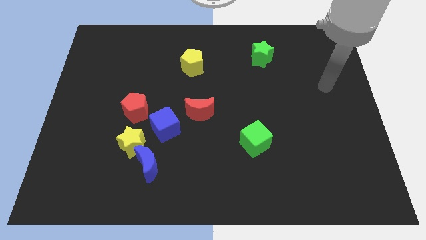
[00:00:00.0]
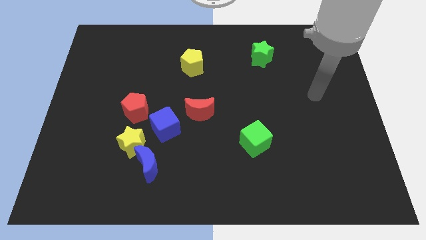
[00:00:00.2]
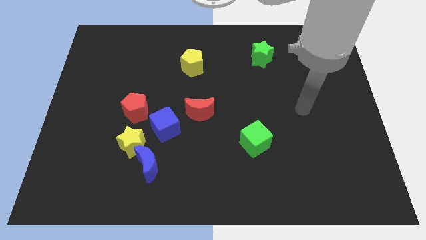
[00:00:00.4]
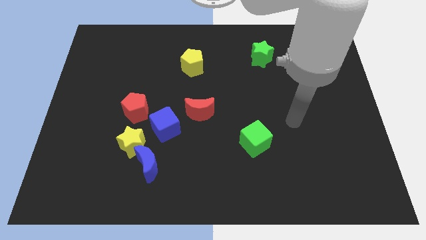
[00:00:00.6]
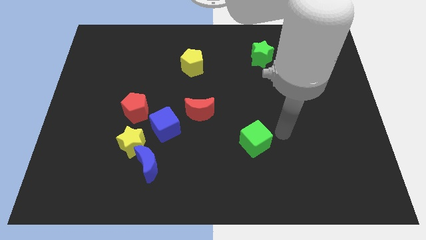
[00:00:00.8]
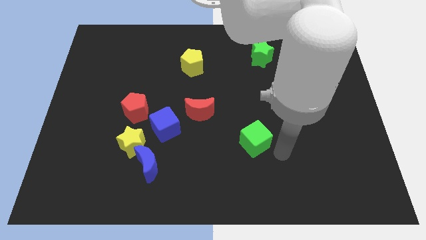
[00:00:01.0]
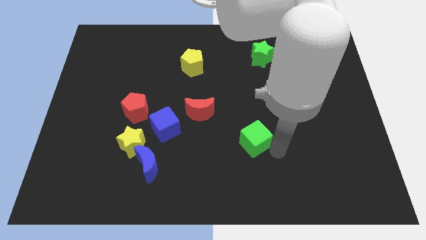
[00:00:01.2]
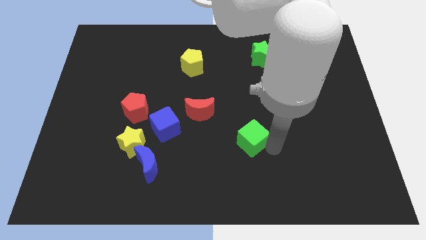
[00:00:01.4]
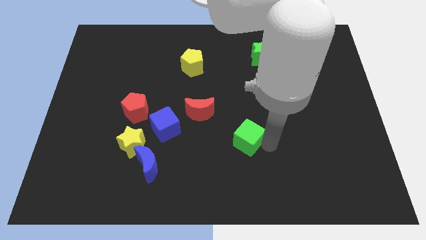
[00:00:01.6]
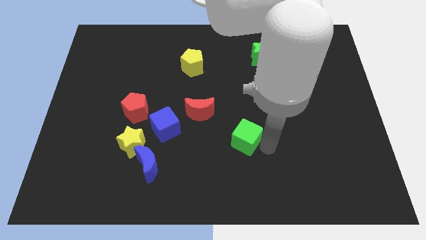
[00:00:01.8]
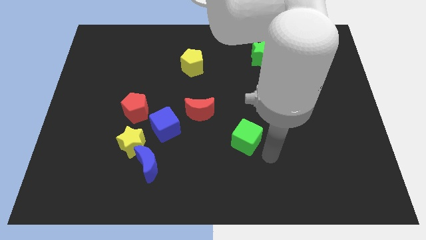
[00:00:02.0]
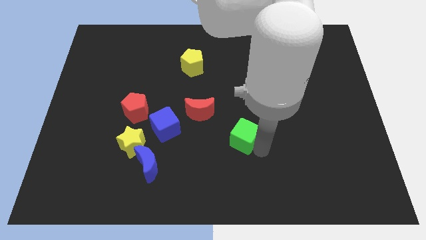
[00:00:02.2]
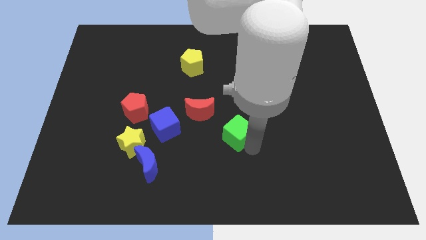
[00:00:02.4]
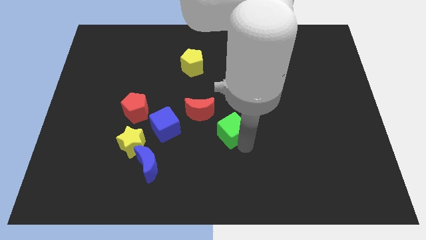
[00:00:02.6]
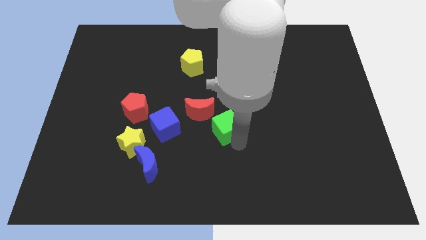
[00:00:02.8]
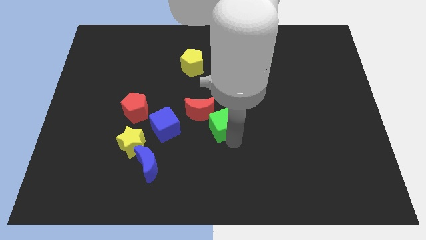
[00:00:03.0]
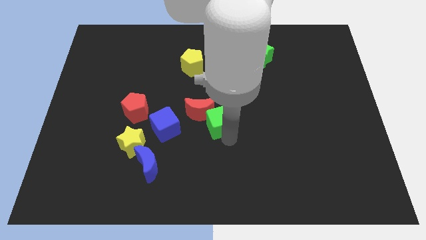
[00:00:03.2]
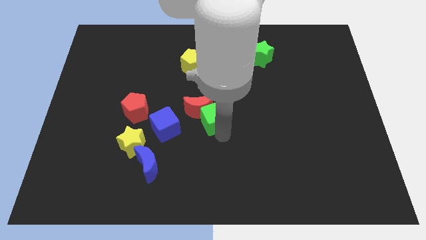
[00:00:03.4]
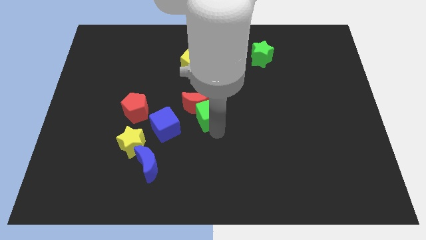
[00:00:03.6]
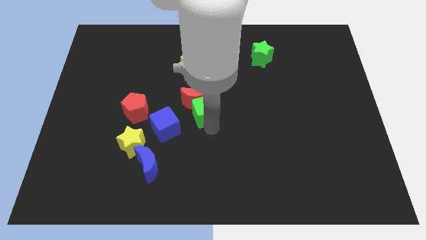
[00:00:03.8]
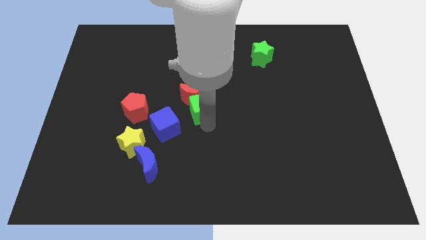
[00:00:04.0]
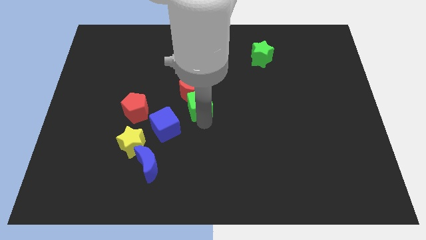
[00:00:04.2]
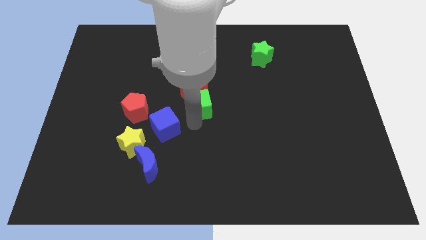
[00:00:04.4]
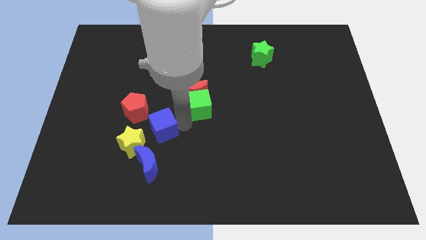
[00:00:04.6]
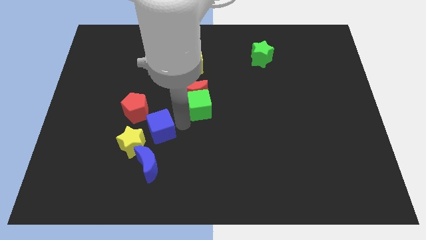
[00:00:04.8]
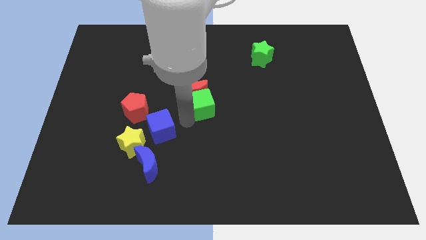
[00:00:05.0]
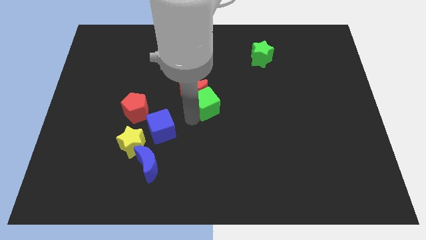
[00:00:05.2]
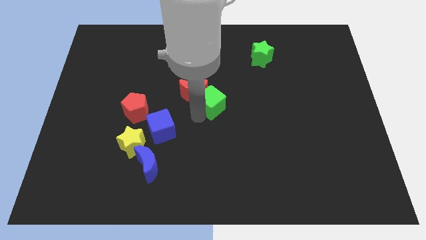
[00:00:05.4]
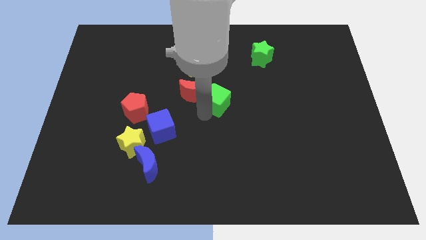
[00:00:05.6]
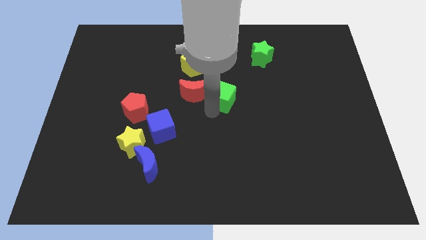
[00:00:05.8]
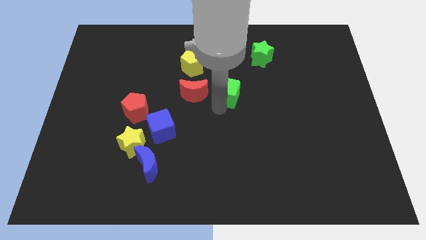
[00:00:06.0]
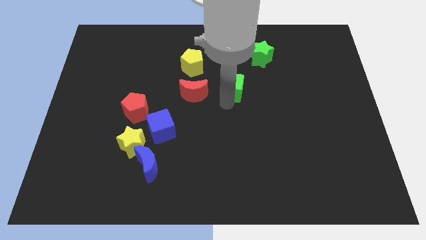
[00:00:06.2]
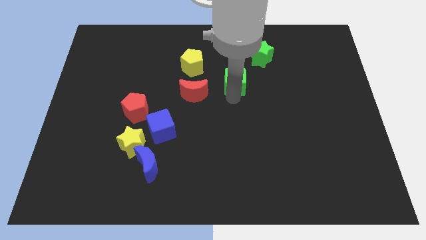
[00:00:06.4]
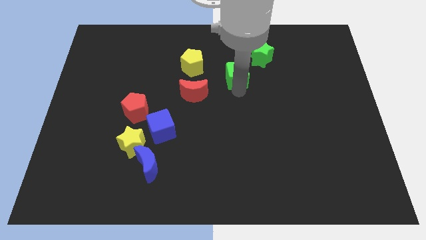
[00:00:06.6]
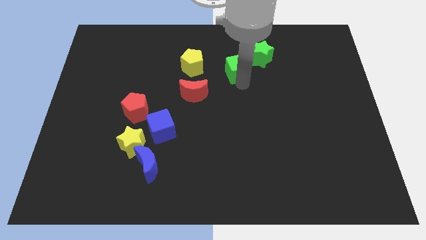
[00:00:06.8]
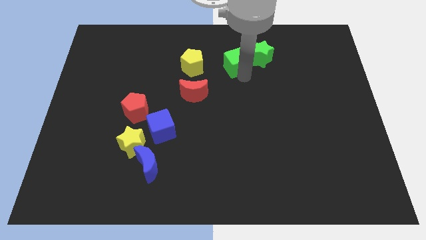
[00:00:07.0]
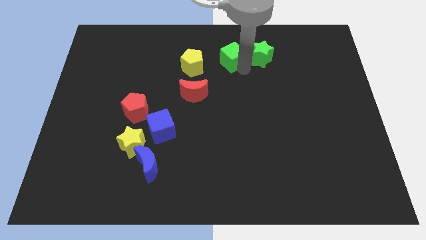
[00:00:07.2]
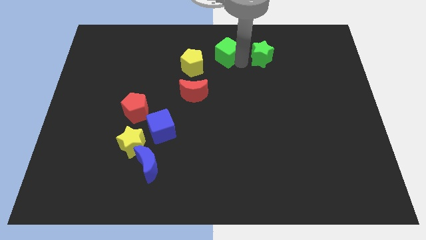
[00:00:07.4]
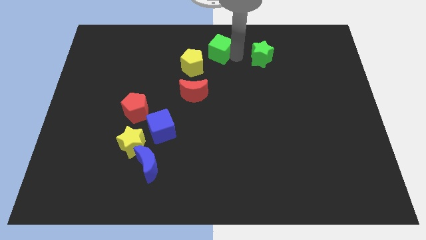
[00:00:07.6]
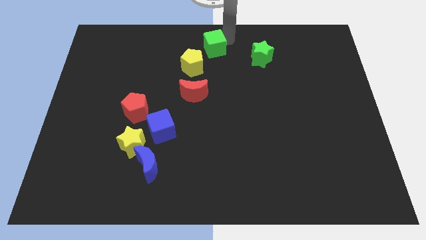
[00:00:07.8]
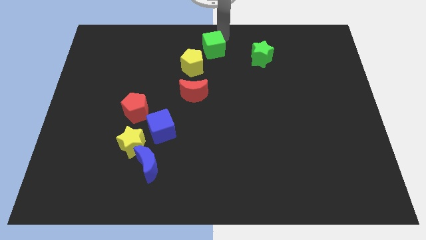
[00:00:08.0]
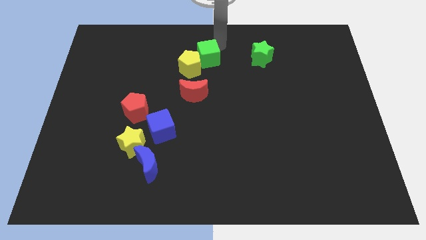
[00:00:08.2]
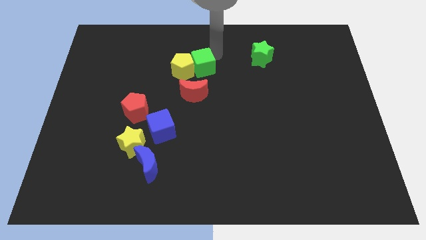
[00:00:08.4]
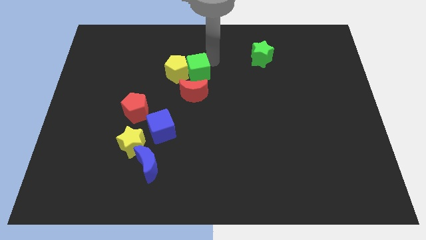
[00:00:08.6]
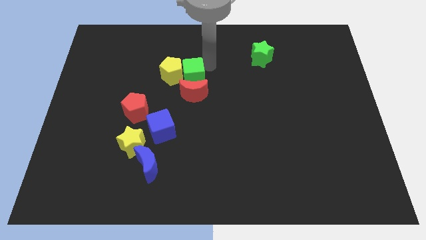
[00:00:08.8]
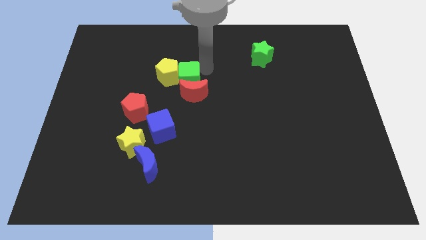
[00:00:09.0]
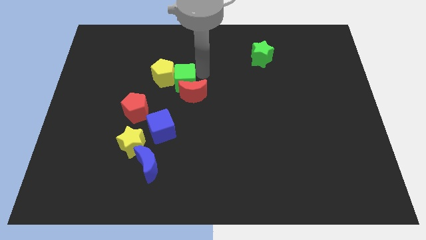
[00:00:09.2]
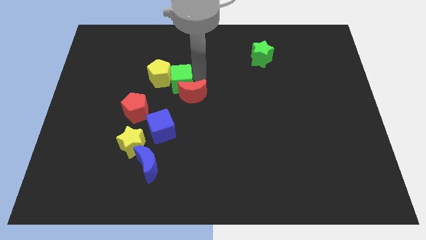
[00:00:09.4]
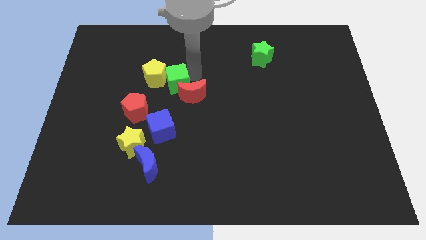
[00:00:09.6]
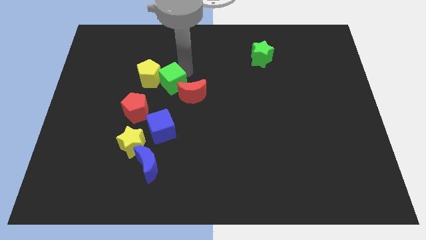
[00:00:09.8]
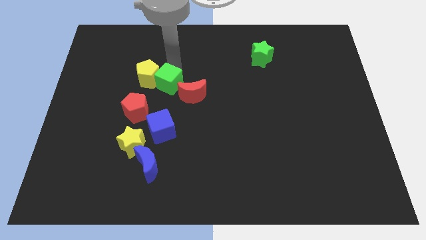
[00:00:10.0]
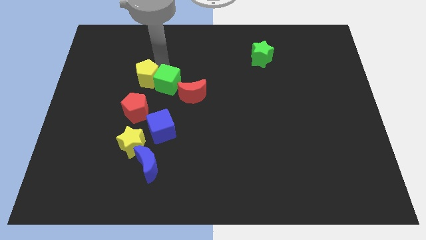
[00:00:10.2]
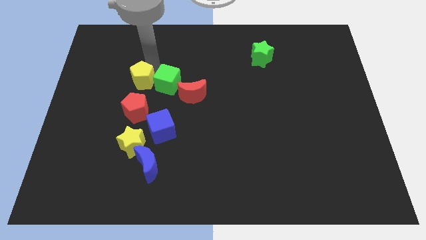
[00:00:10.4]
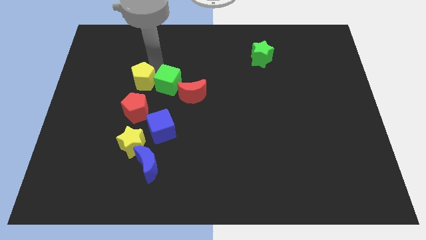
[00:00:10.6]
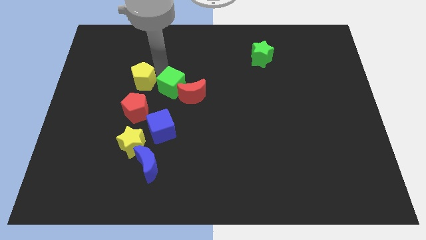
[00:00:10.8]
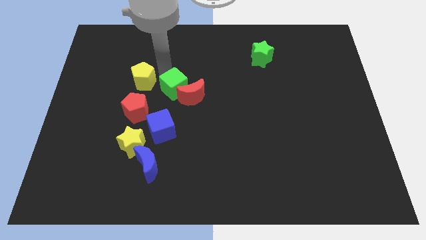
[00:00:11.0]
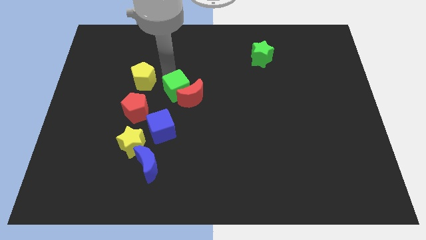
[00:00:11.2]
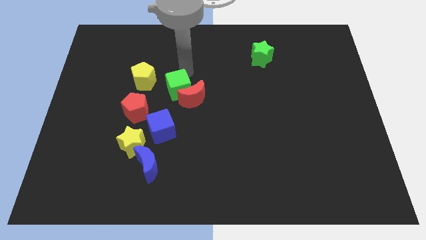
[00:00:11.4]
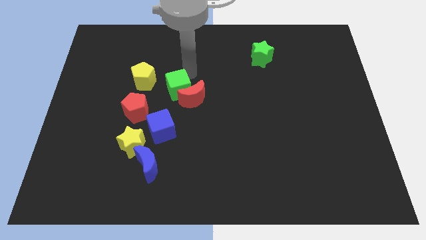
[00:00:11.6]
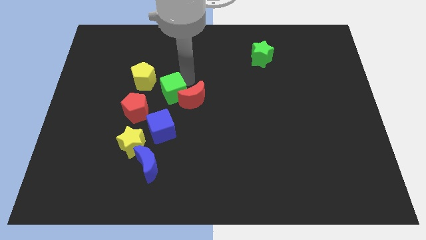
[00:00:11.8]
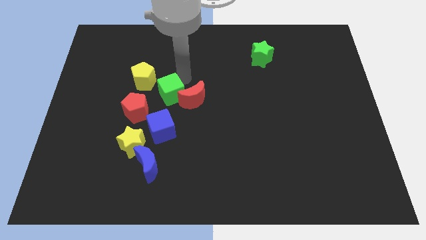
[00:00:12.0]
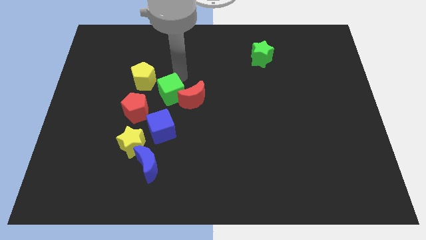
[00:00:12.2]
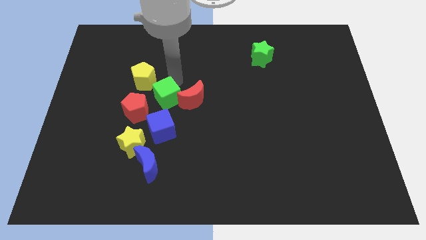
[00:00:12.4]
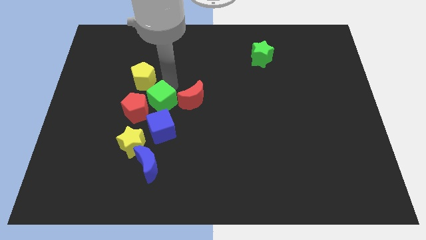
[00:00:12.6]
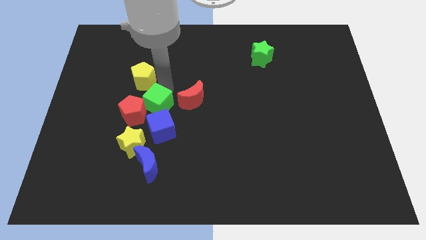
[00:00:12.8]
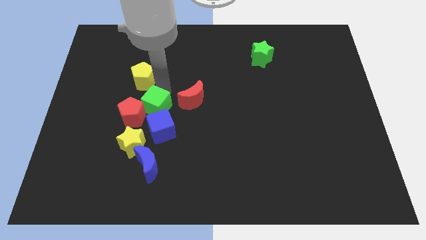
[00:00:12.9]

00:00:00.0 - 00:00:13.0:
slide the green cube above the blue moon

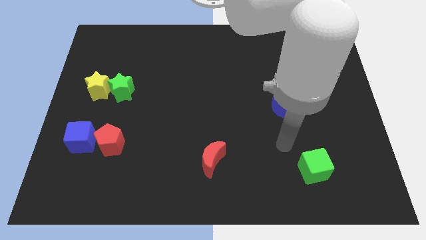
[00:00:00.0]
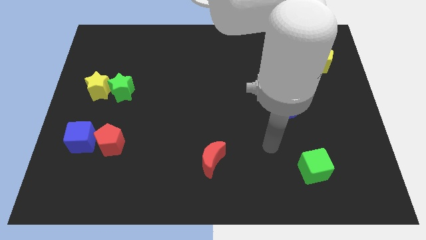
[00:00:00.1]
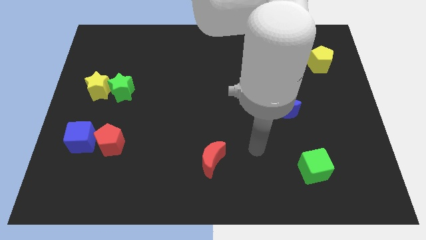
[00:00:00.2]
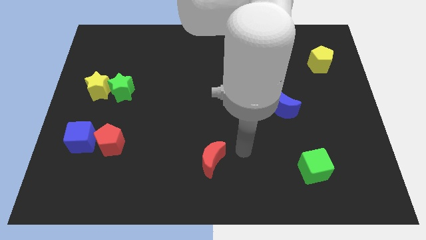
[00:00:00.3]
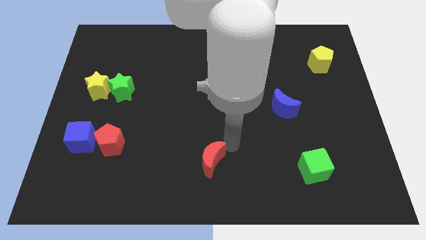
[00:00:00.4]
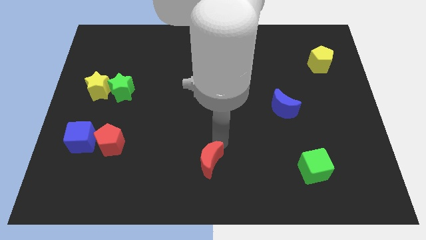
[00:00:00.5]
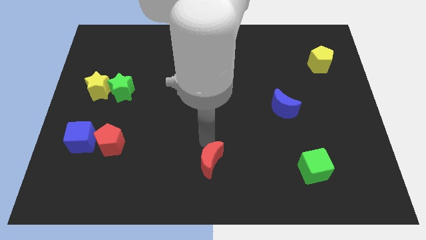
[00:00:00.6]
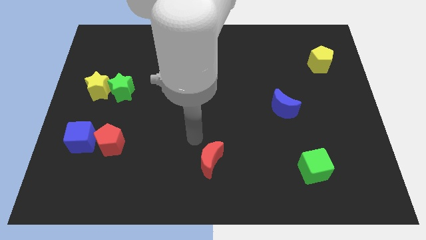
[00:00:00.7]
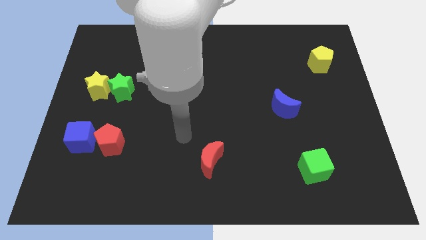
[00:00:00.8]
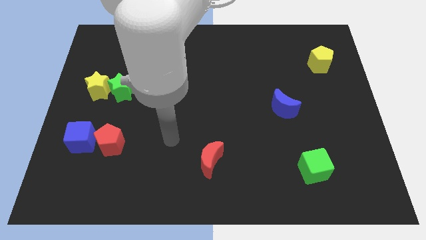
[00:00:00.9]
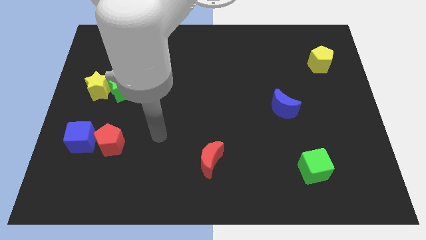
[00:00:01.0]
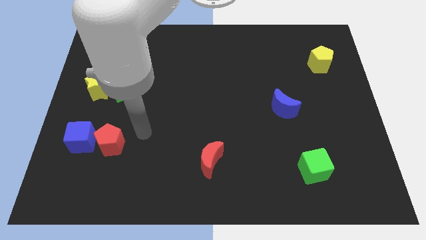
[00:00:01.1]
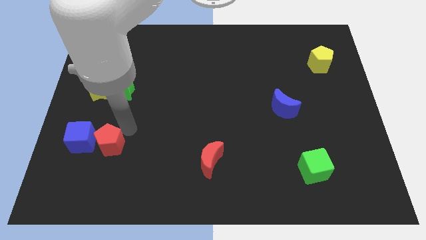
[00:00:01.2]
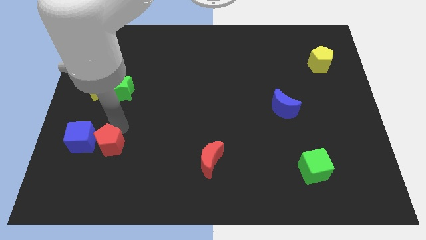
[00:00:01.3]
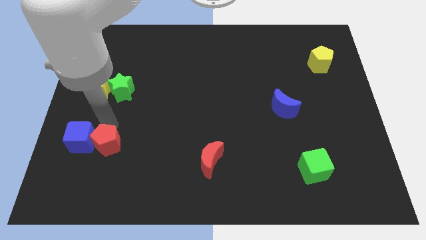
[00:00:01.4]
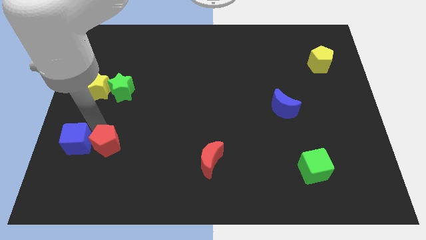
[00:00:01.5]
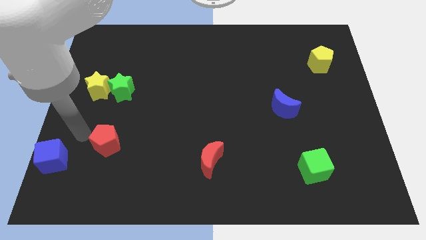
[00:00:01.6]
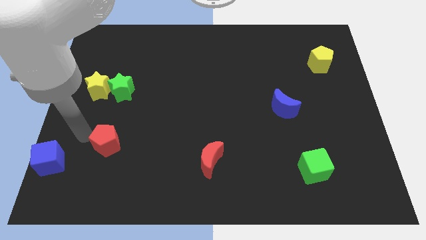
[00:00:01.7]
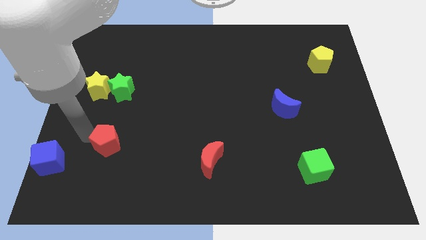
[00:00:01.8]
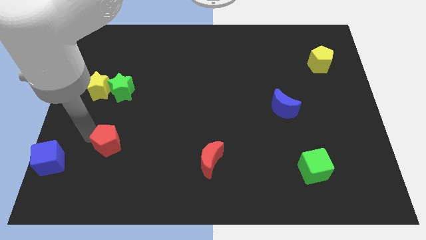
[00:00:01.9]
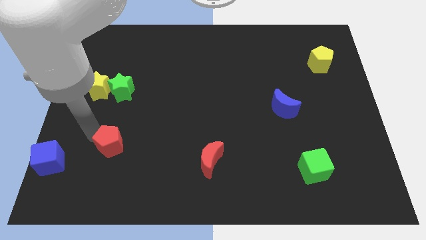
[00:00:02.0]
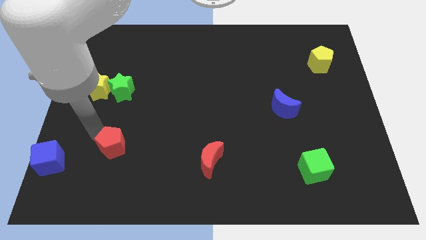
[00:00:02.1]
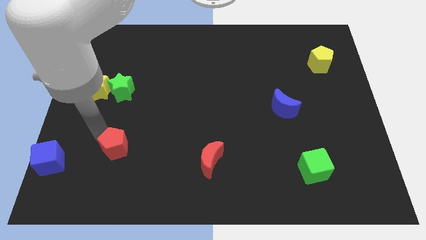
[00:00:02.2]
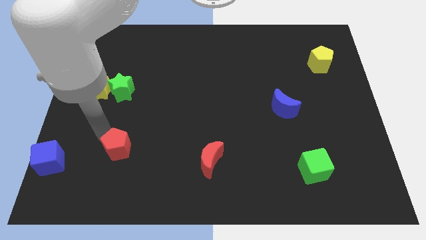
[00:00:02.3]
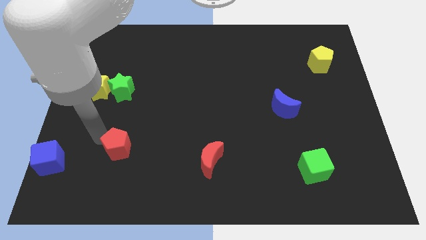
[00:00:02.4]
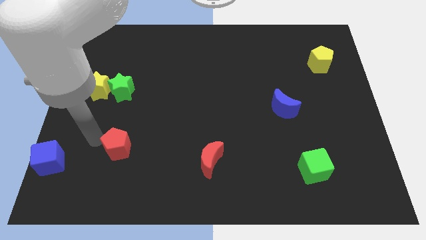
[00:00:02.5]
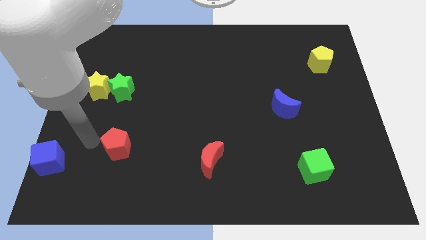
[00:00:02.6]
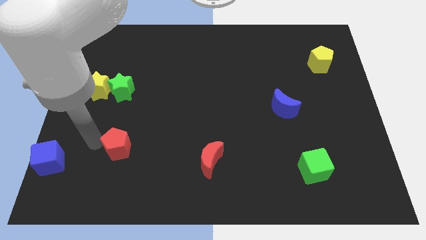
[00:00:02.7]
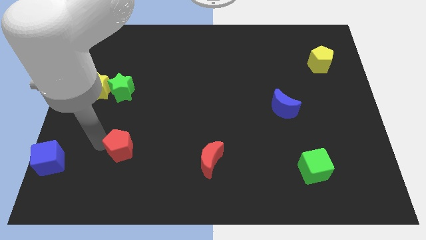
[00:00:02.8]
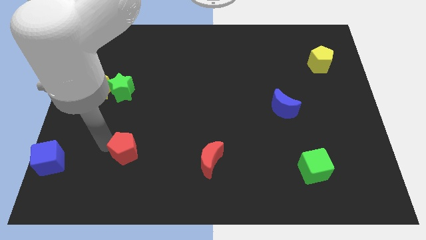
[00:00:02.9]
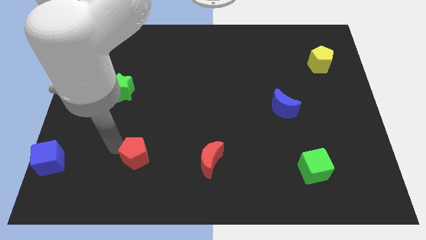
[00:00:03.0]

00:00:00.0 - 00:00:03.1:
push the red pentagon just left of the red moon
